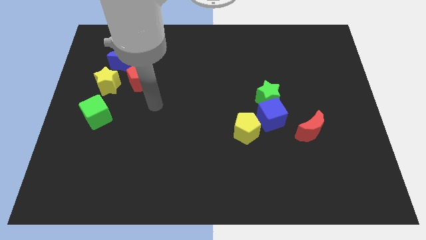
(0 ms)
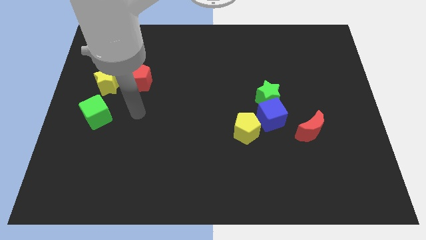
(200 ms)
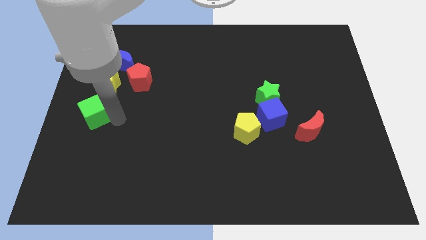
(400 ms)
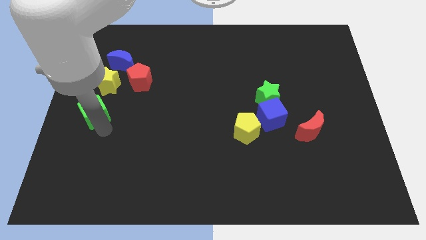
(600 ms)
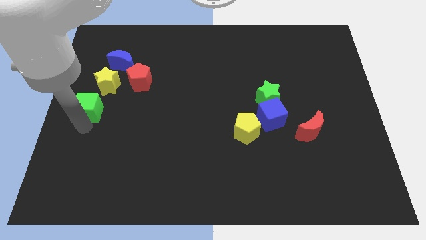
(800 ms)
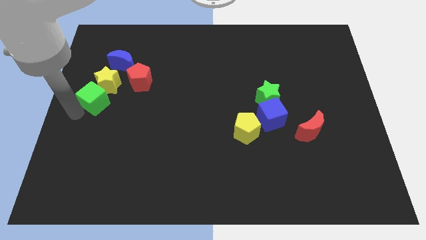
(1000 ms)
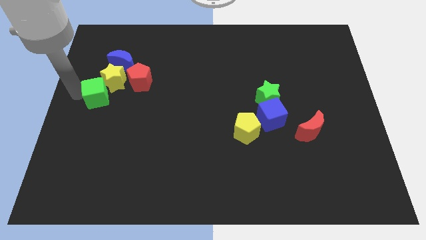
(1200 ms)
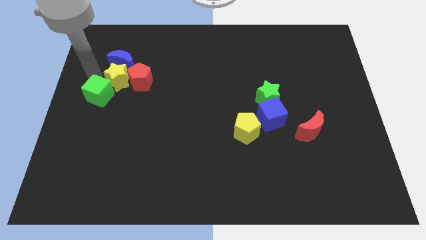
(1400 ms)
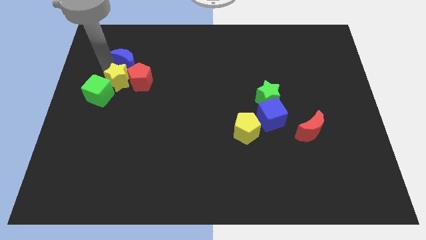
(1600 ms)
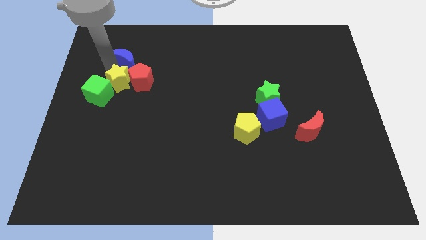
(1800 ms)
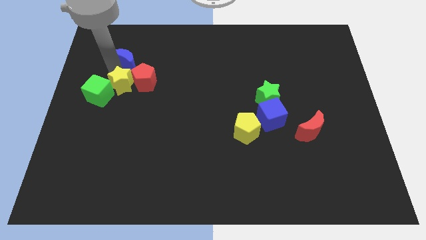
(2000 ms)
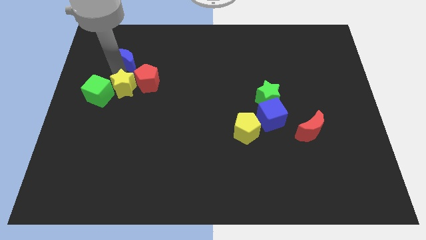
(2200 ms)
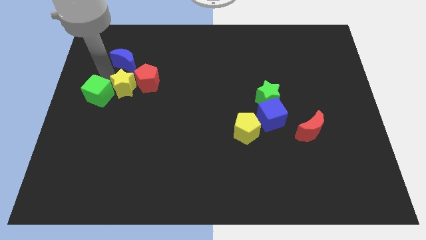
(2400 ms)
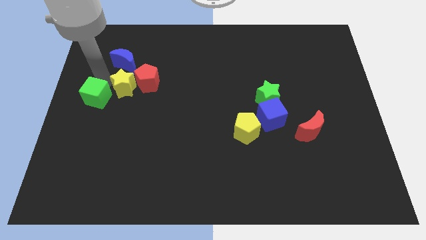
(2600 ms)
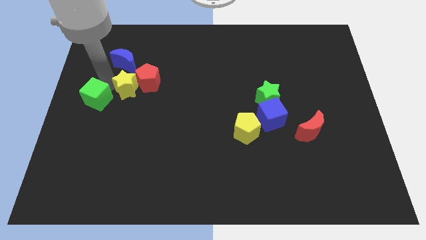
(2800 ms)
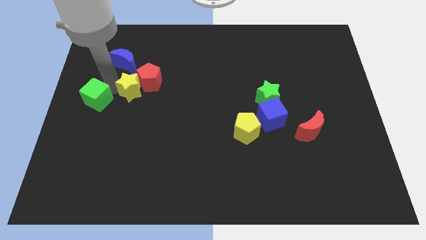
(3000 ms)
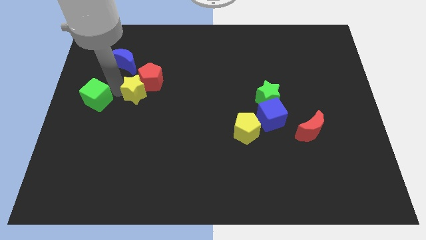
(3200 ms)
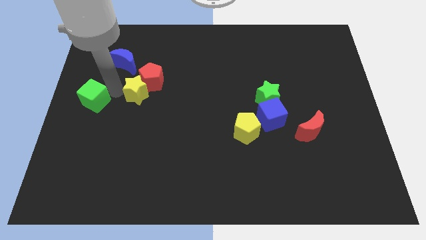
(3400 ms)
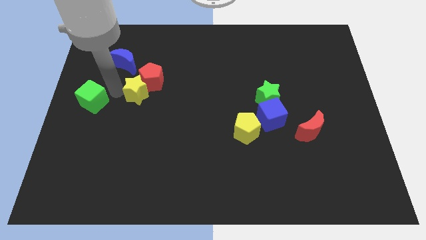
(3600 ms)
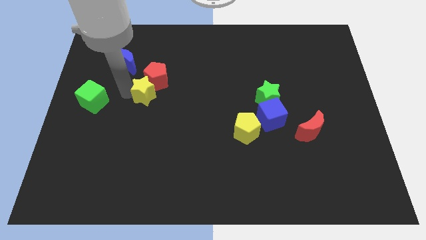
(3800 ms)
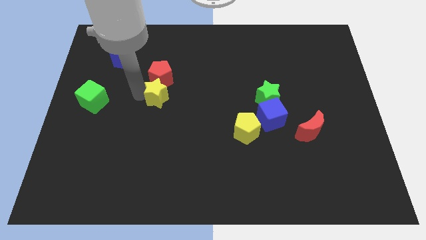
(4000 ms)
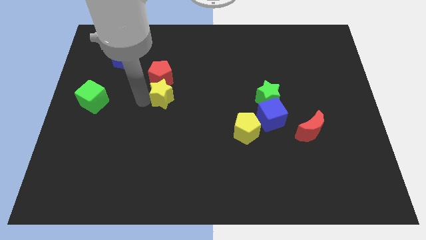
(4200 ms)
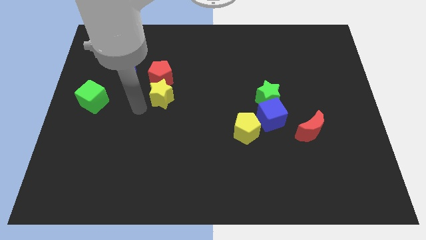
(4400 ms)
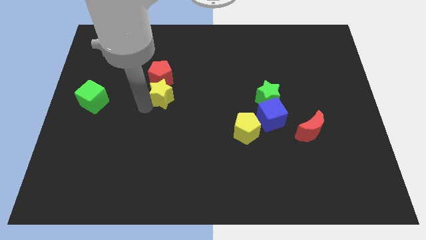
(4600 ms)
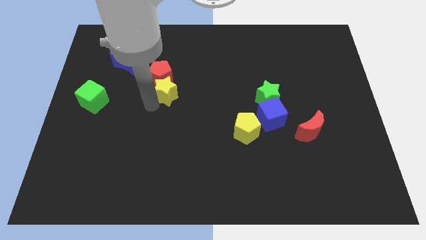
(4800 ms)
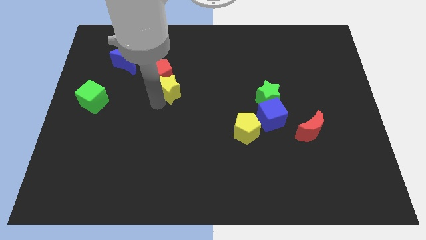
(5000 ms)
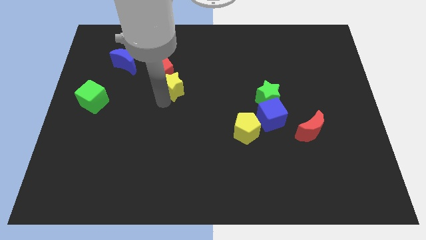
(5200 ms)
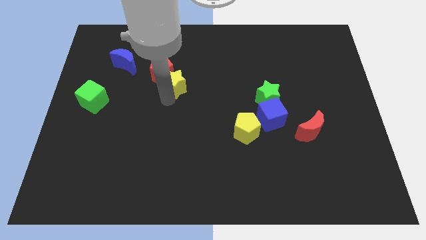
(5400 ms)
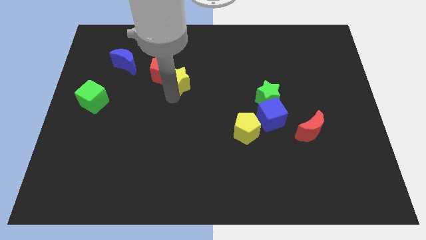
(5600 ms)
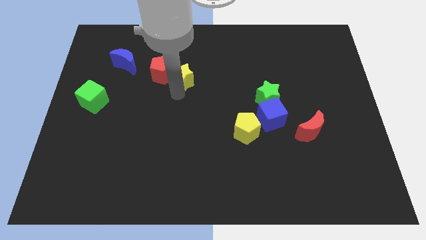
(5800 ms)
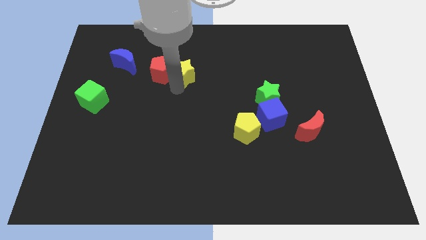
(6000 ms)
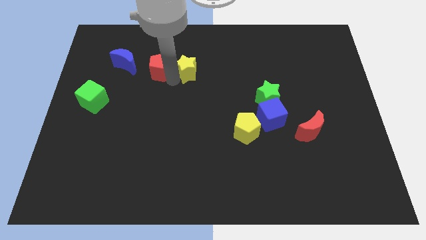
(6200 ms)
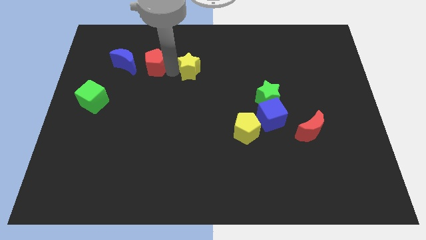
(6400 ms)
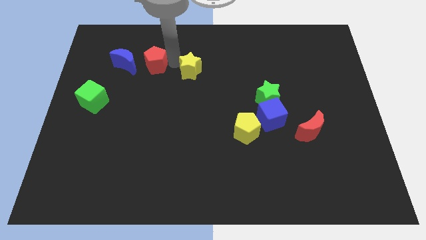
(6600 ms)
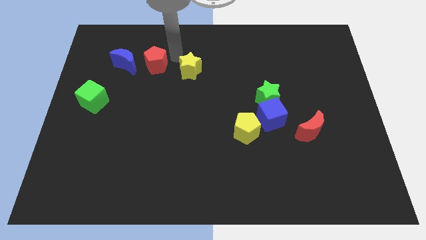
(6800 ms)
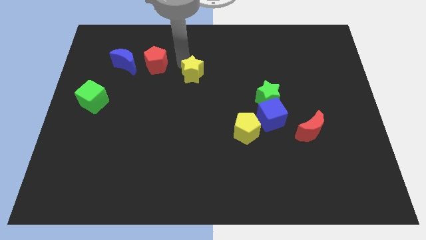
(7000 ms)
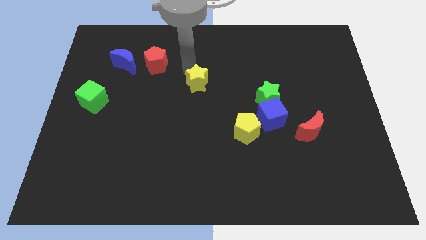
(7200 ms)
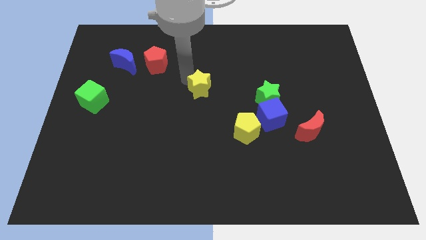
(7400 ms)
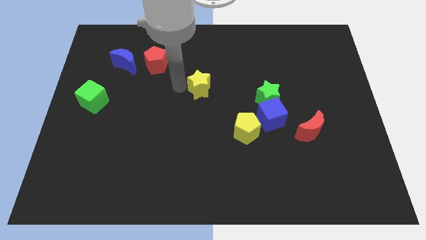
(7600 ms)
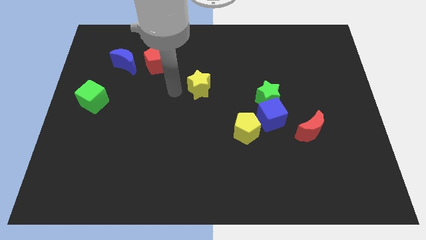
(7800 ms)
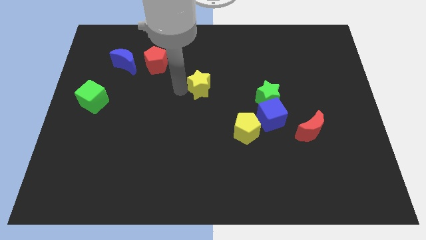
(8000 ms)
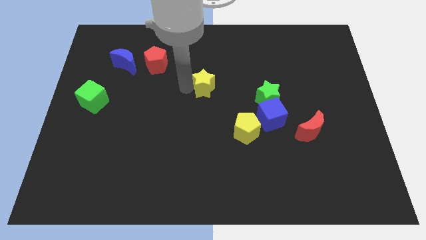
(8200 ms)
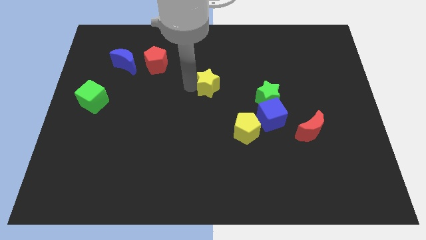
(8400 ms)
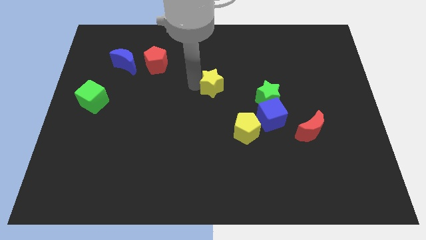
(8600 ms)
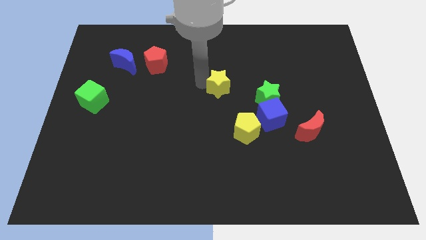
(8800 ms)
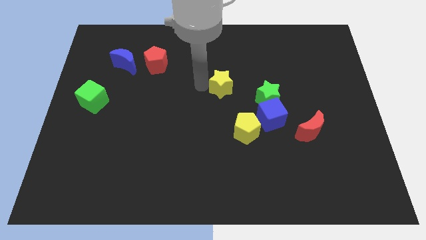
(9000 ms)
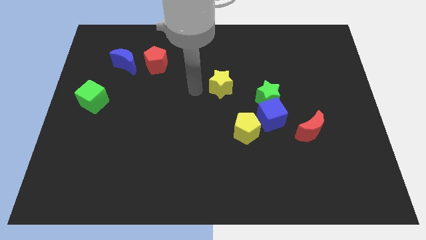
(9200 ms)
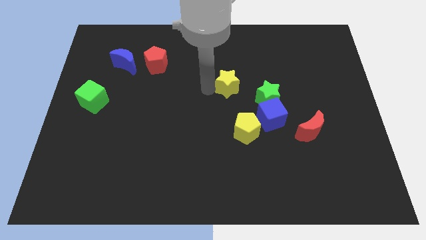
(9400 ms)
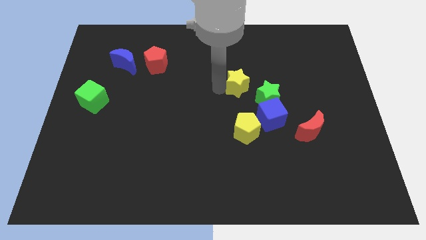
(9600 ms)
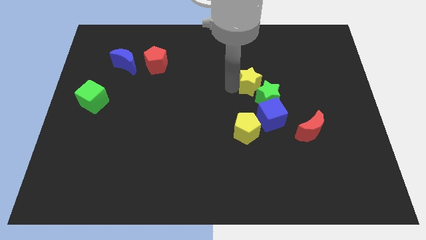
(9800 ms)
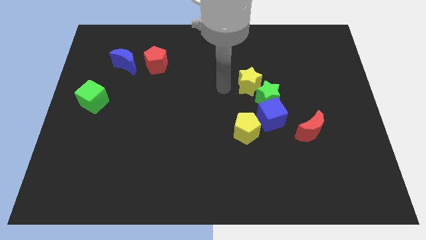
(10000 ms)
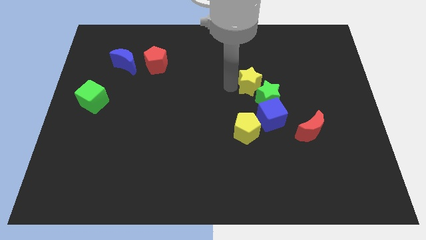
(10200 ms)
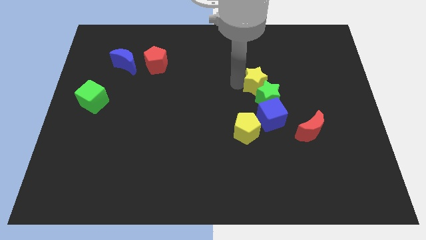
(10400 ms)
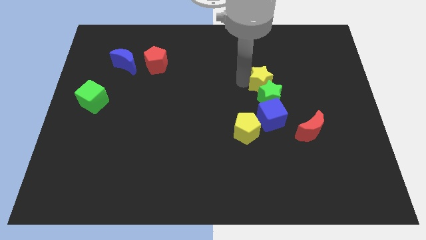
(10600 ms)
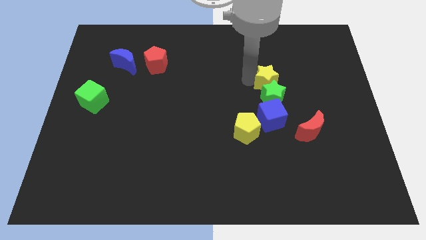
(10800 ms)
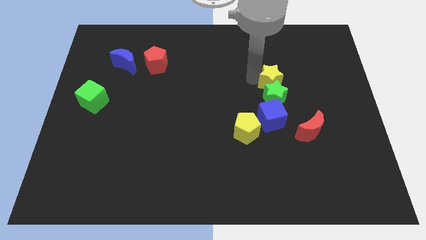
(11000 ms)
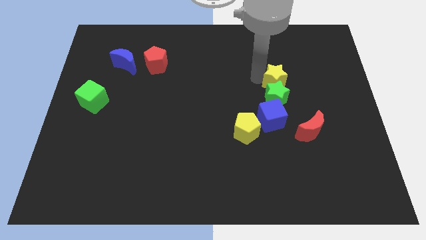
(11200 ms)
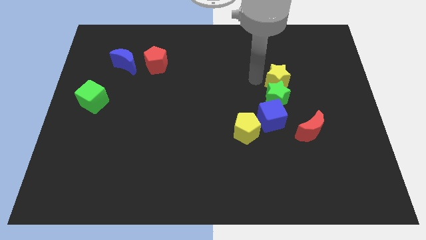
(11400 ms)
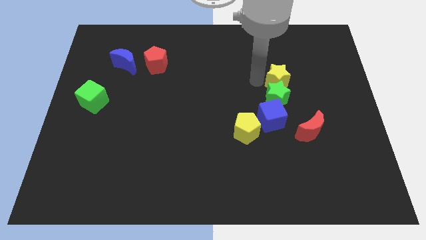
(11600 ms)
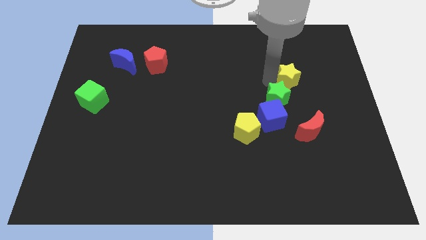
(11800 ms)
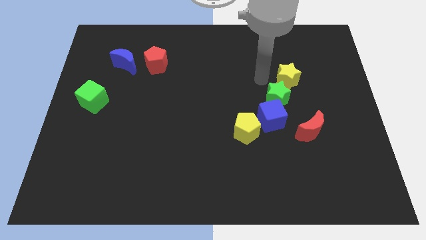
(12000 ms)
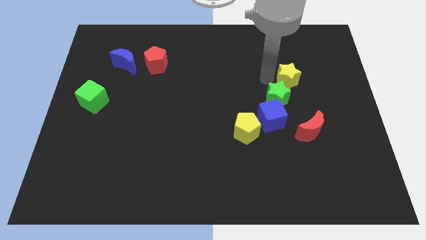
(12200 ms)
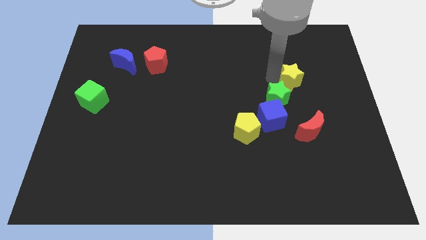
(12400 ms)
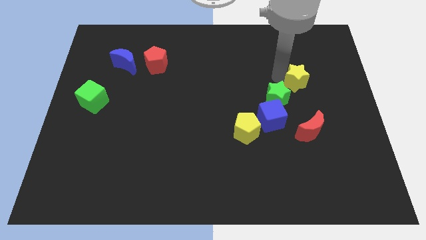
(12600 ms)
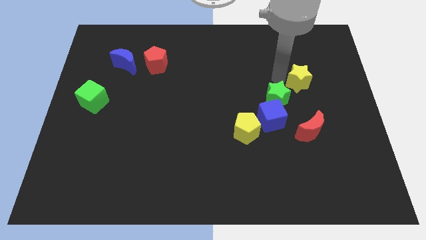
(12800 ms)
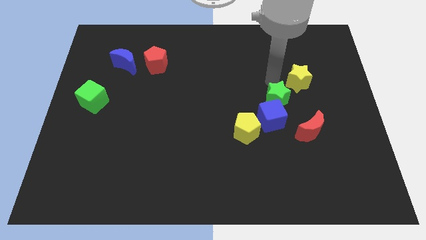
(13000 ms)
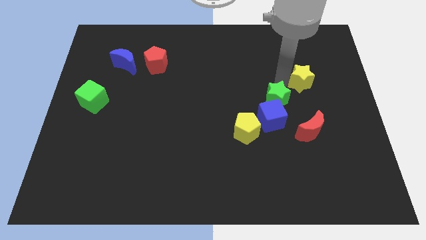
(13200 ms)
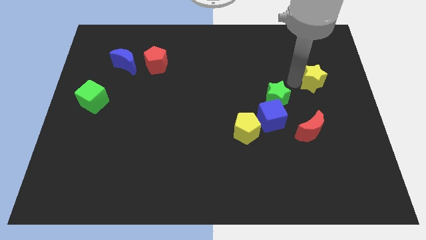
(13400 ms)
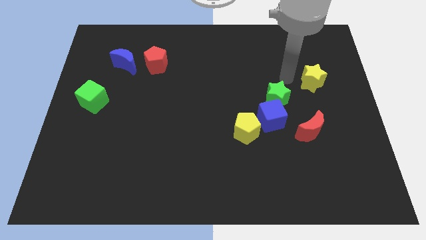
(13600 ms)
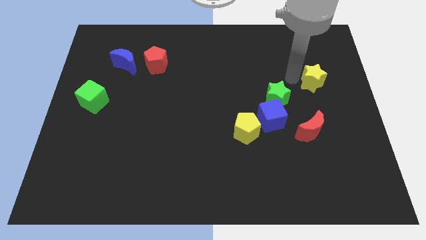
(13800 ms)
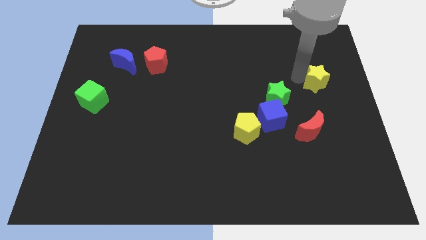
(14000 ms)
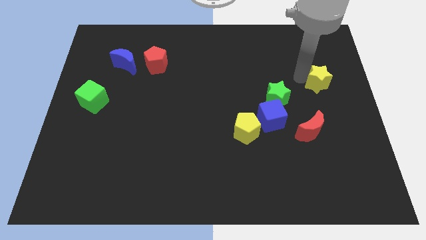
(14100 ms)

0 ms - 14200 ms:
put the yellow star to the right side

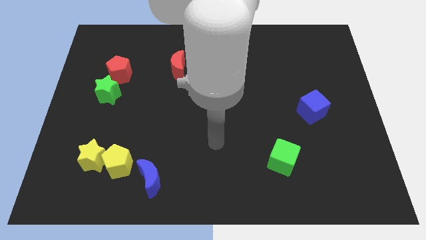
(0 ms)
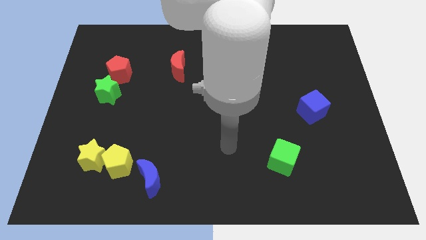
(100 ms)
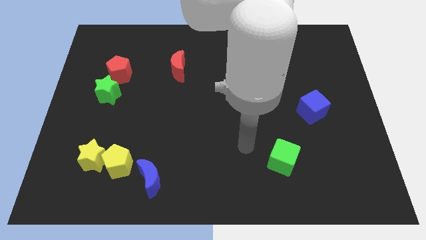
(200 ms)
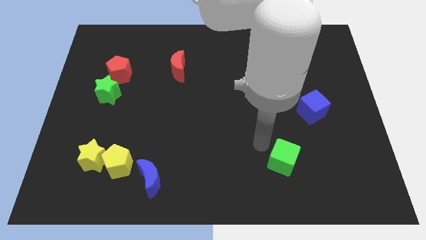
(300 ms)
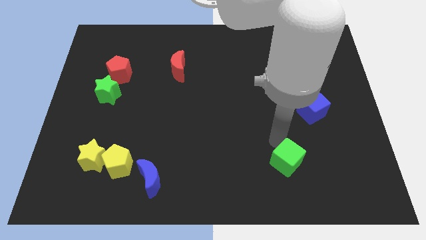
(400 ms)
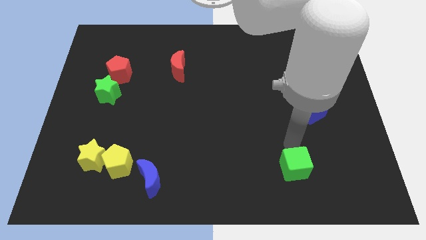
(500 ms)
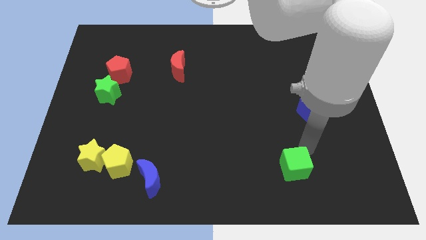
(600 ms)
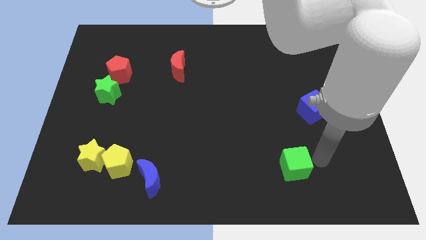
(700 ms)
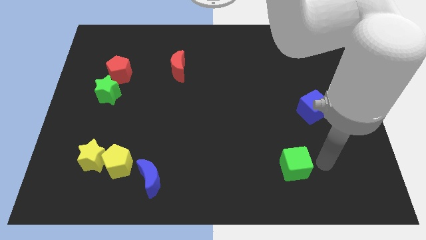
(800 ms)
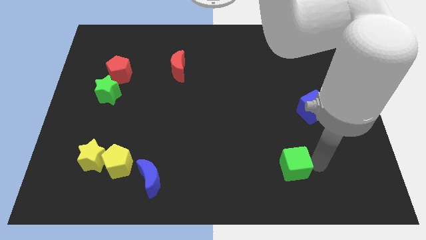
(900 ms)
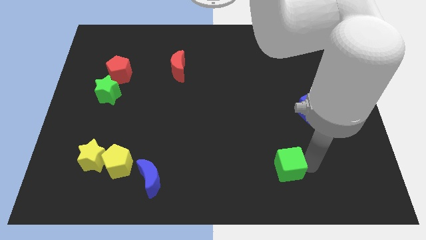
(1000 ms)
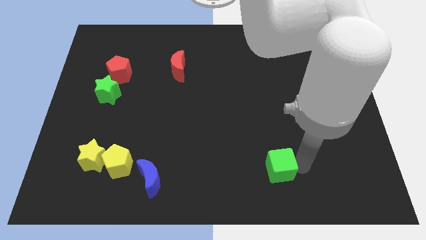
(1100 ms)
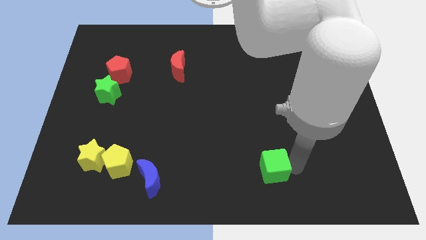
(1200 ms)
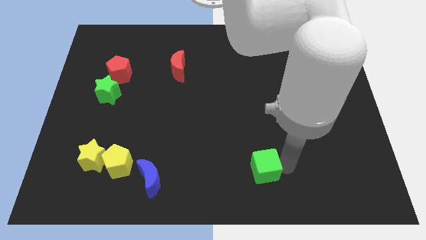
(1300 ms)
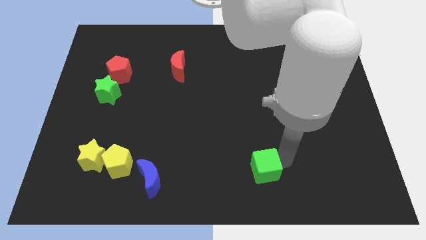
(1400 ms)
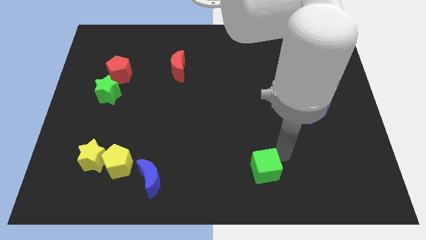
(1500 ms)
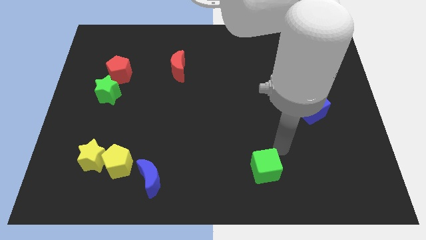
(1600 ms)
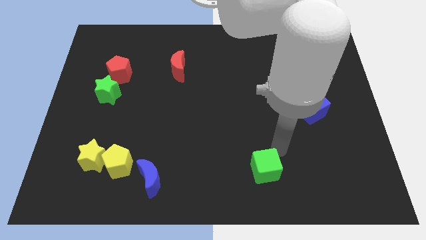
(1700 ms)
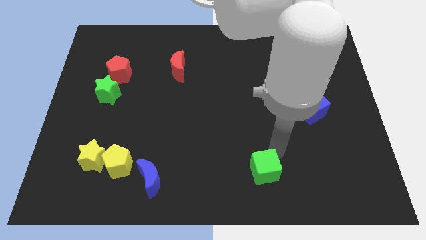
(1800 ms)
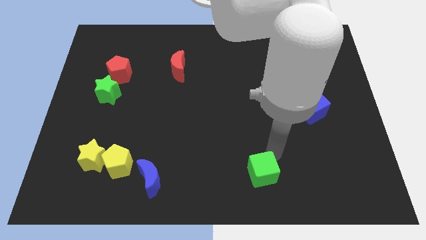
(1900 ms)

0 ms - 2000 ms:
slide the green cube to the bottom side
